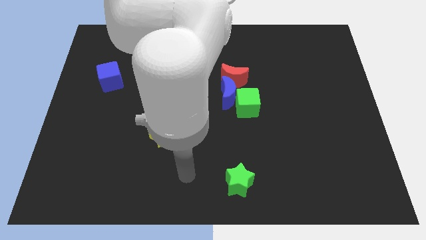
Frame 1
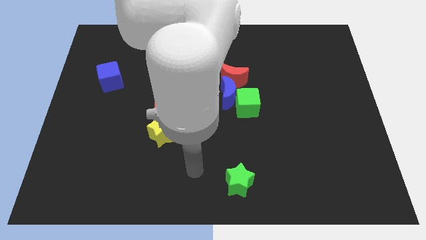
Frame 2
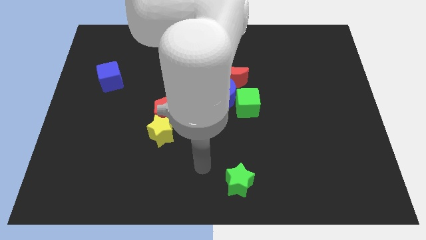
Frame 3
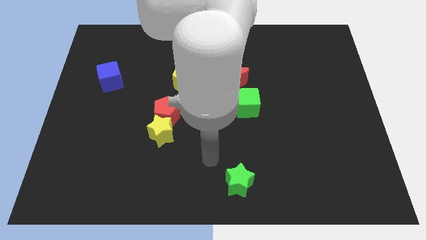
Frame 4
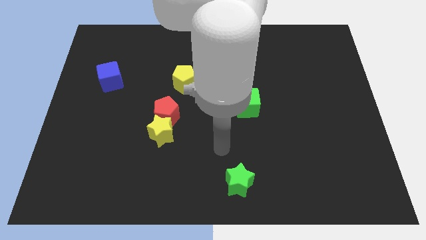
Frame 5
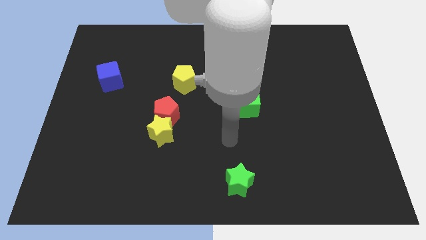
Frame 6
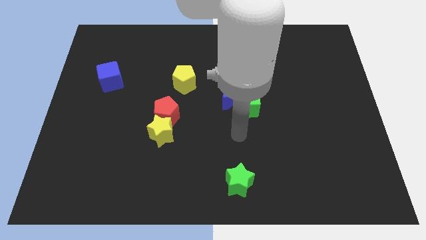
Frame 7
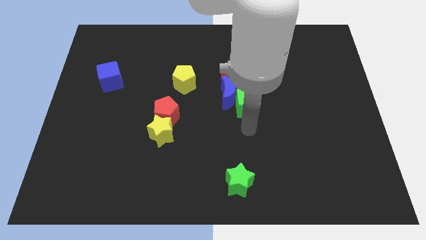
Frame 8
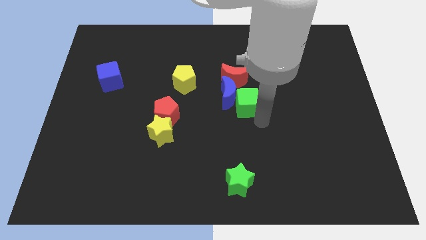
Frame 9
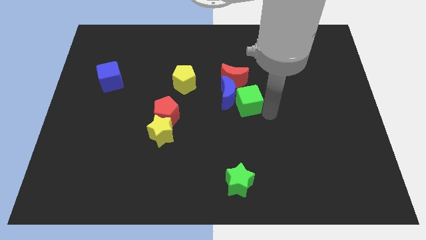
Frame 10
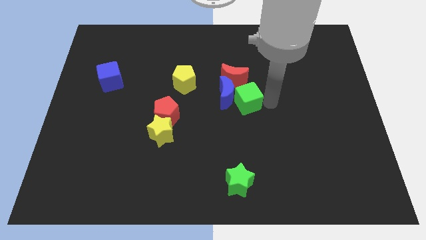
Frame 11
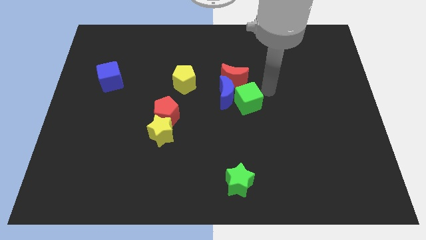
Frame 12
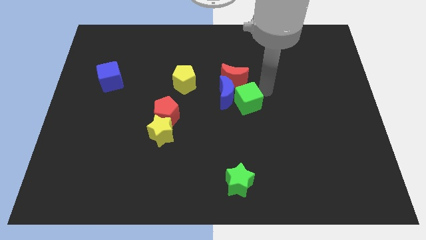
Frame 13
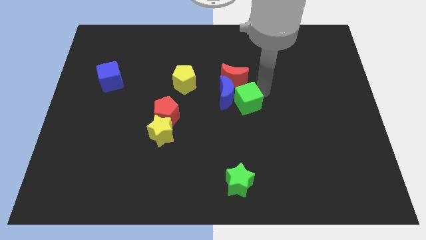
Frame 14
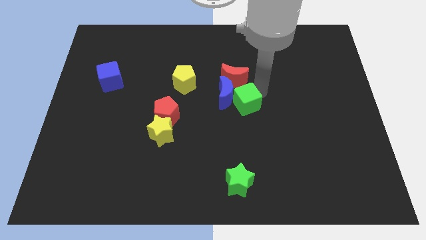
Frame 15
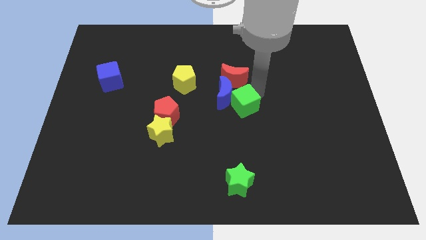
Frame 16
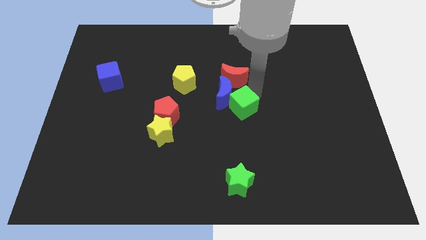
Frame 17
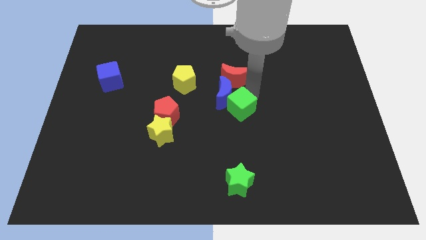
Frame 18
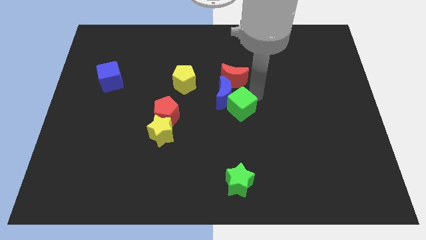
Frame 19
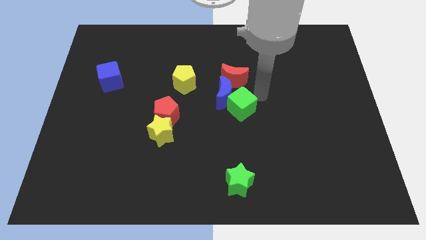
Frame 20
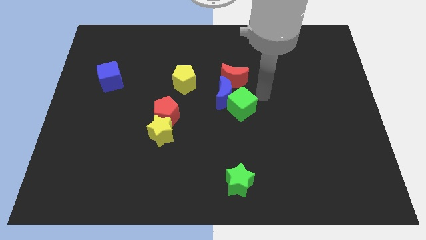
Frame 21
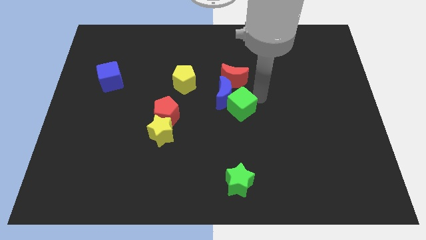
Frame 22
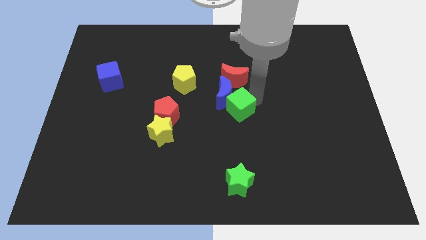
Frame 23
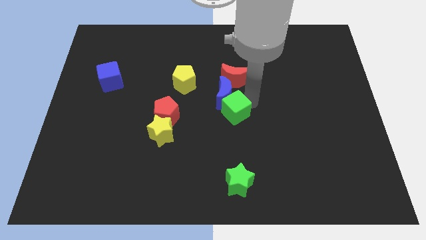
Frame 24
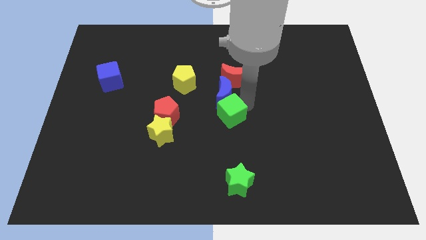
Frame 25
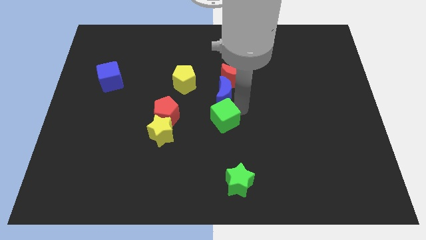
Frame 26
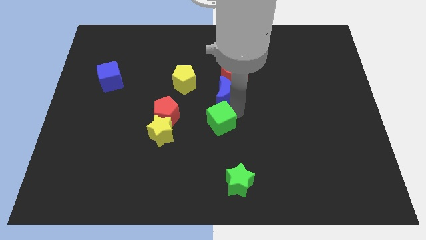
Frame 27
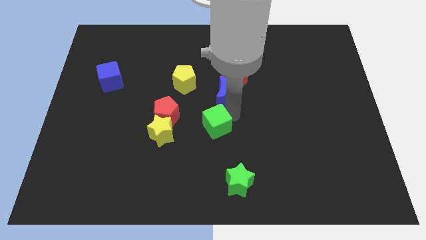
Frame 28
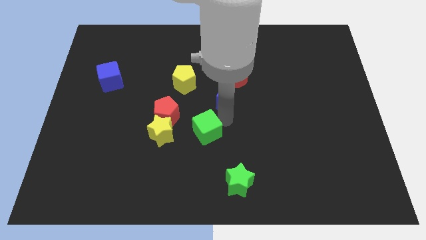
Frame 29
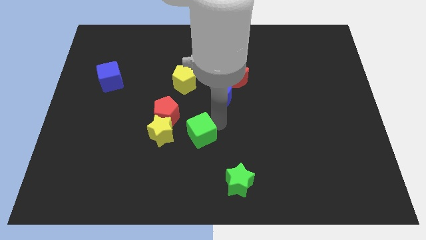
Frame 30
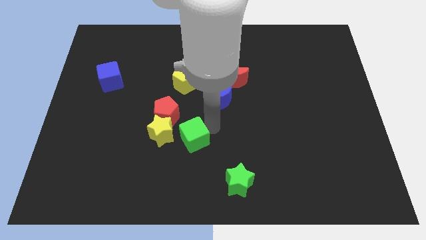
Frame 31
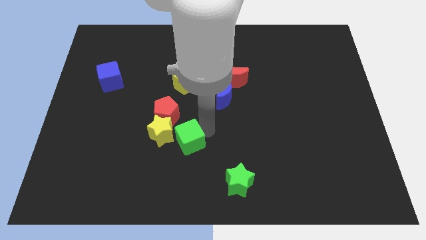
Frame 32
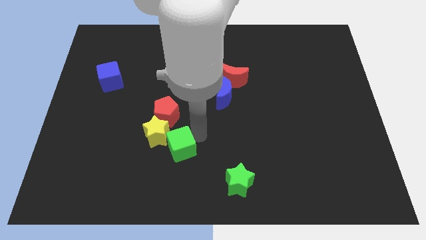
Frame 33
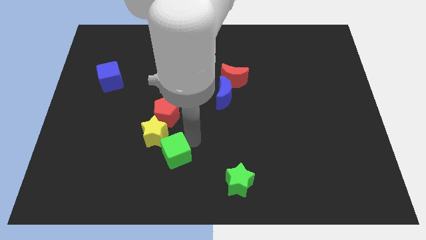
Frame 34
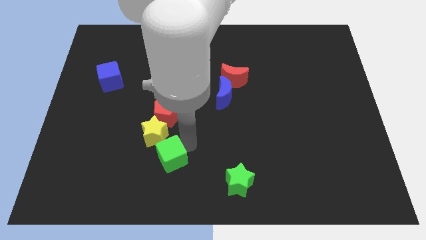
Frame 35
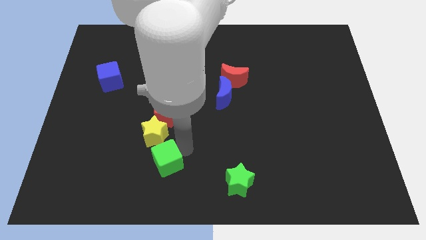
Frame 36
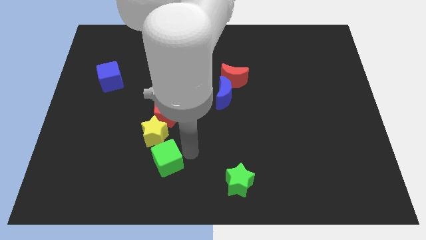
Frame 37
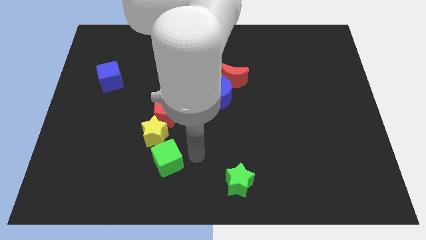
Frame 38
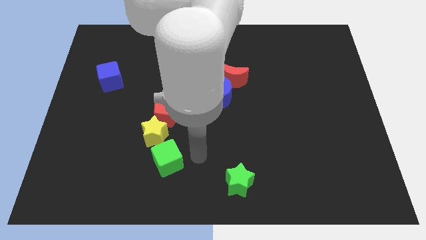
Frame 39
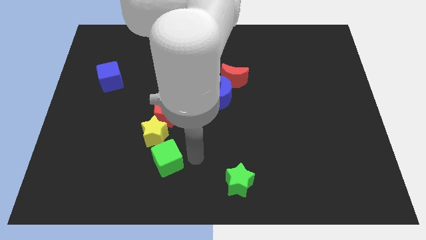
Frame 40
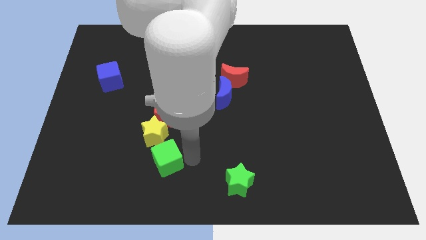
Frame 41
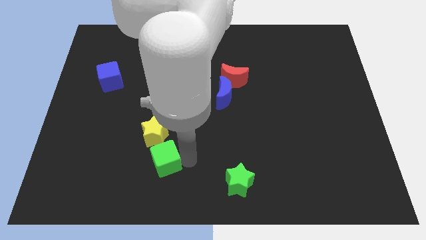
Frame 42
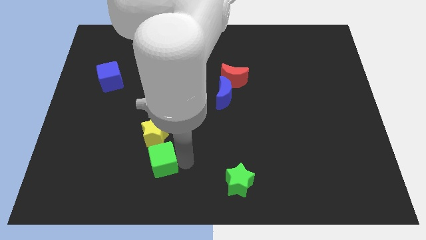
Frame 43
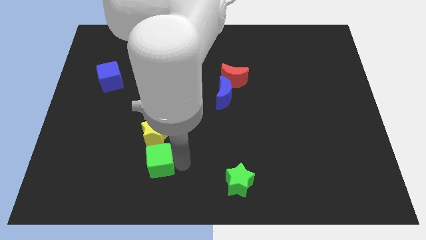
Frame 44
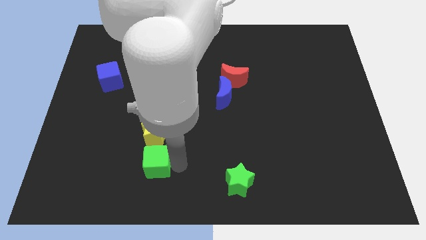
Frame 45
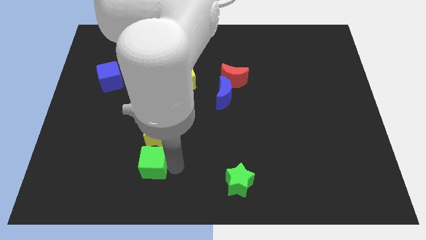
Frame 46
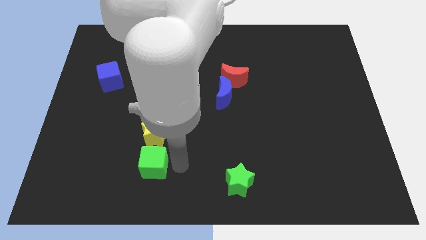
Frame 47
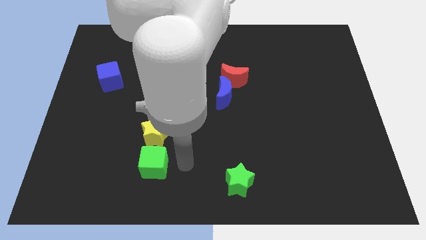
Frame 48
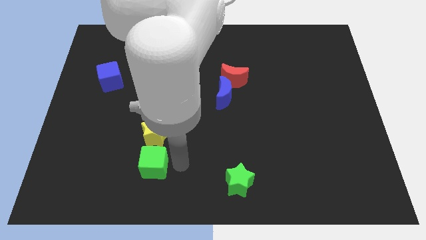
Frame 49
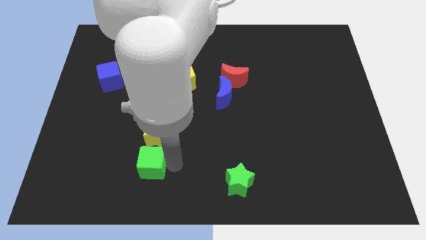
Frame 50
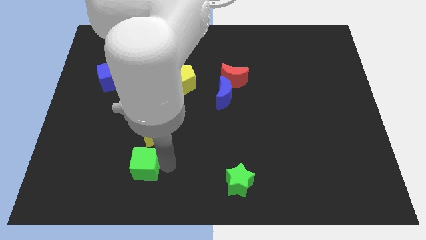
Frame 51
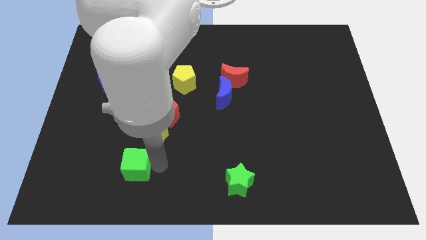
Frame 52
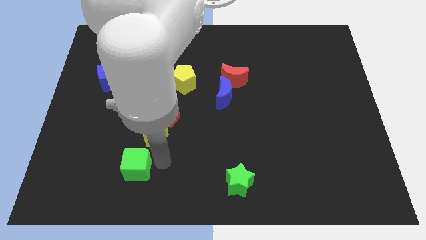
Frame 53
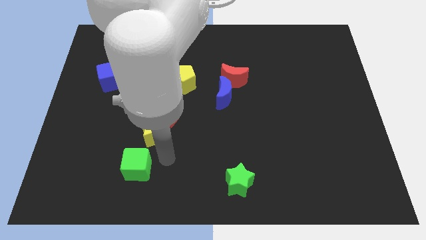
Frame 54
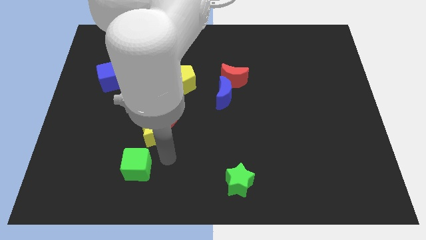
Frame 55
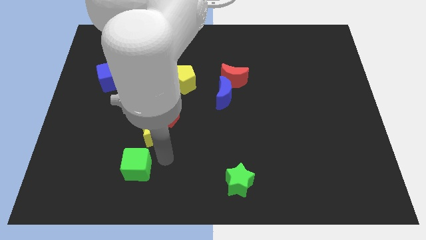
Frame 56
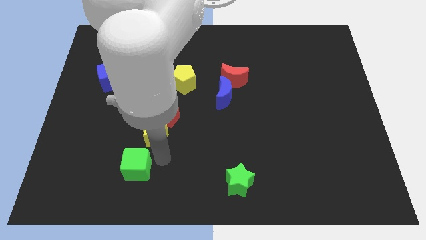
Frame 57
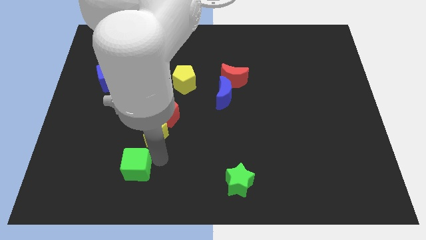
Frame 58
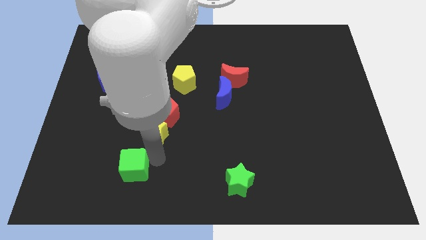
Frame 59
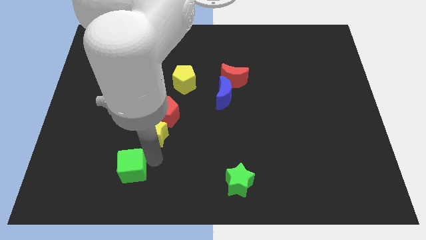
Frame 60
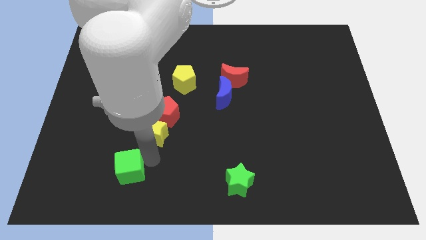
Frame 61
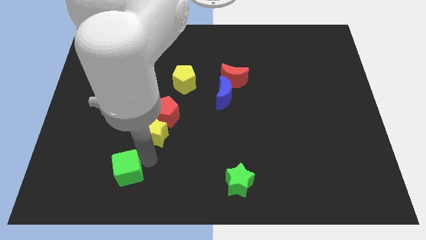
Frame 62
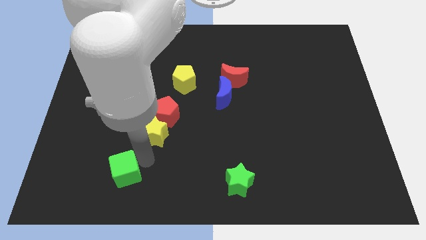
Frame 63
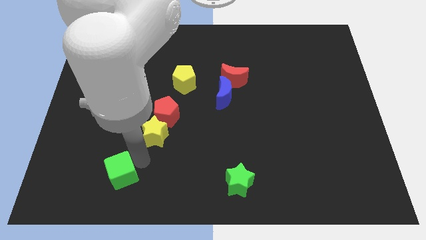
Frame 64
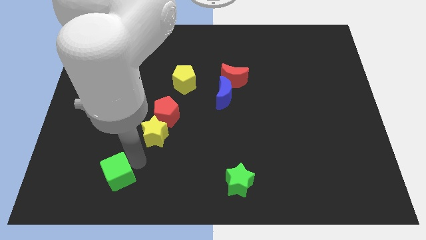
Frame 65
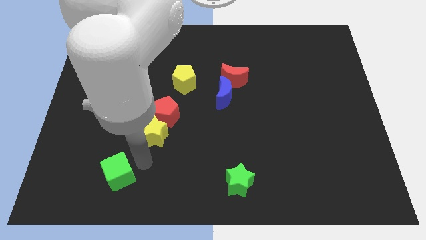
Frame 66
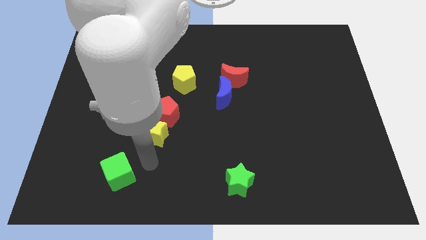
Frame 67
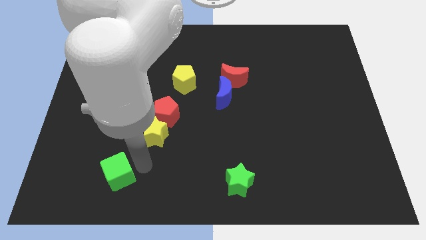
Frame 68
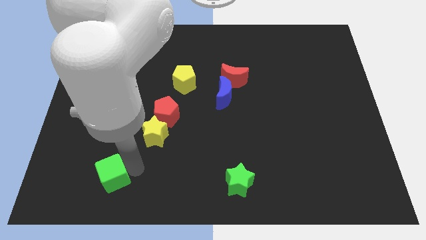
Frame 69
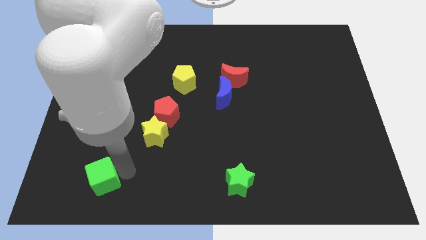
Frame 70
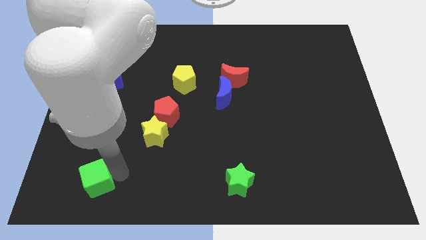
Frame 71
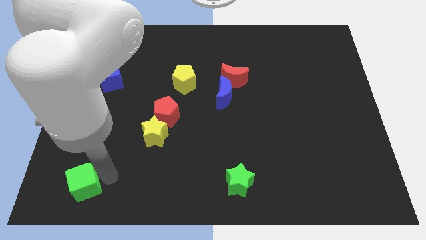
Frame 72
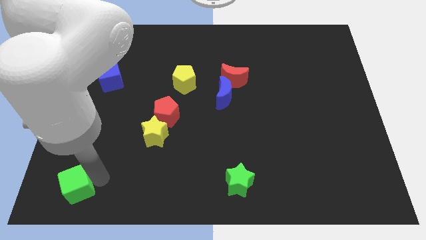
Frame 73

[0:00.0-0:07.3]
move the green cube to the lower left corner
